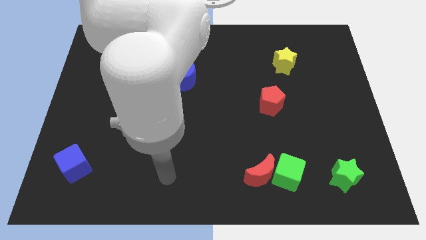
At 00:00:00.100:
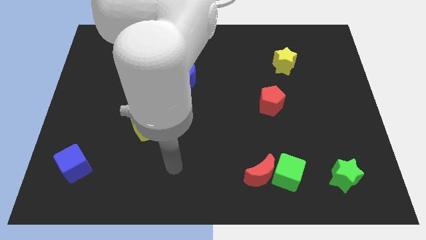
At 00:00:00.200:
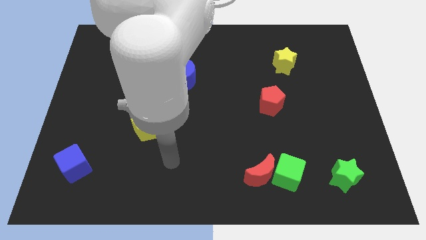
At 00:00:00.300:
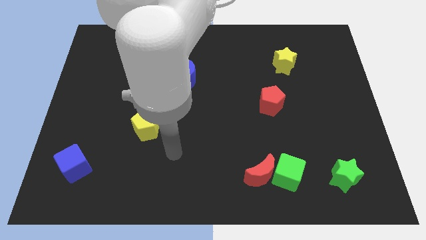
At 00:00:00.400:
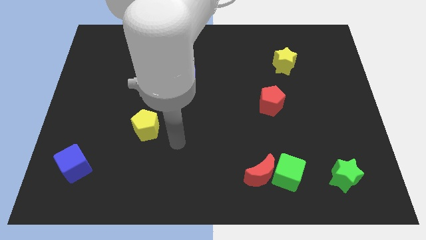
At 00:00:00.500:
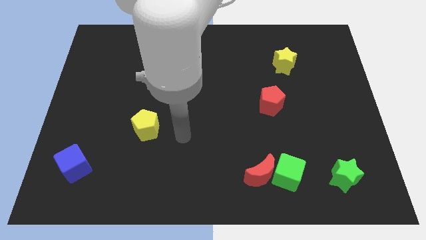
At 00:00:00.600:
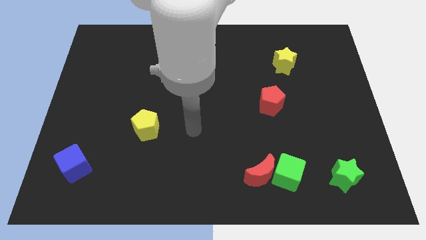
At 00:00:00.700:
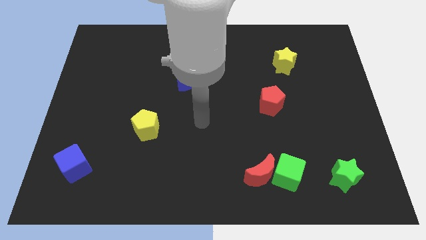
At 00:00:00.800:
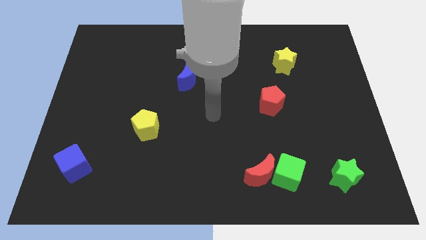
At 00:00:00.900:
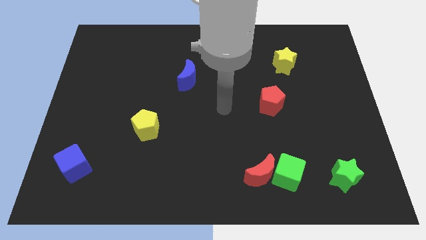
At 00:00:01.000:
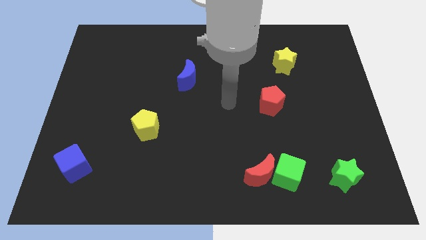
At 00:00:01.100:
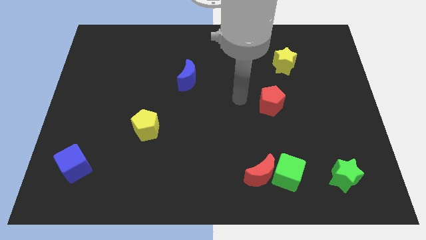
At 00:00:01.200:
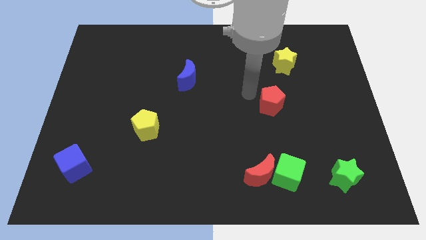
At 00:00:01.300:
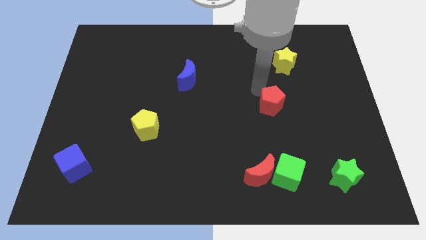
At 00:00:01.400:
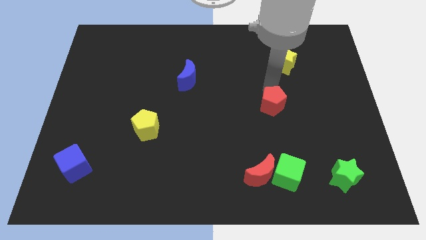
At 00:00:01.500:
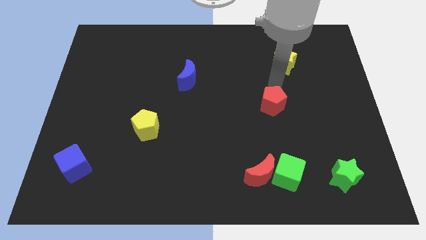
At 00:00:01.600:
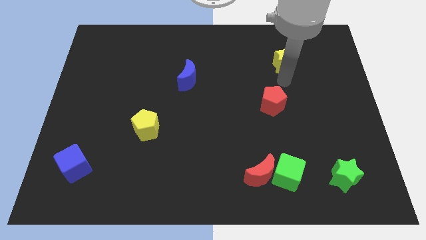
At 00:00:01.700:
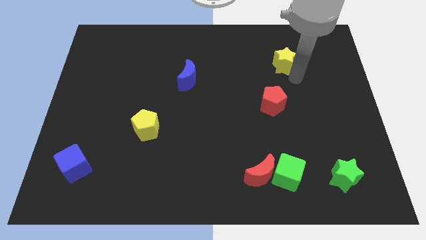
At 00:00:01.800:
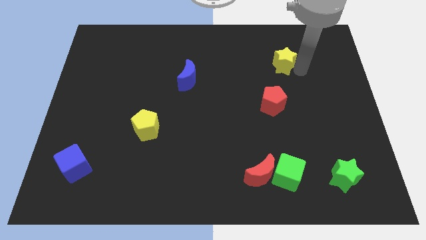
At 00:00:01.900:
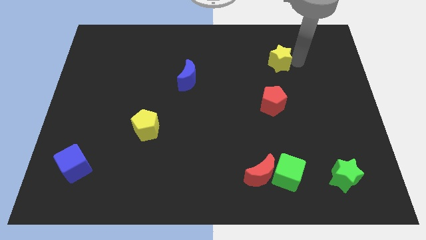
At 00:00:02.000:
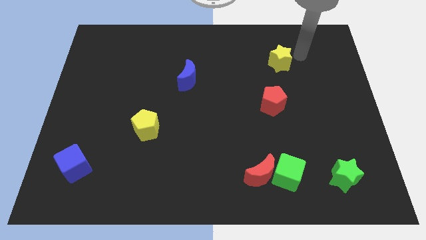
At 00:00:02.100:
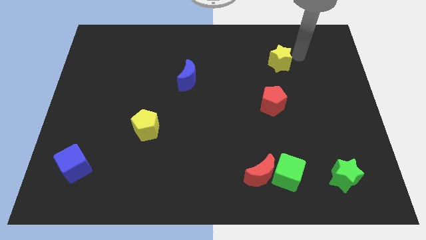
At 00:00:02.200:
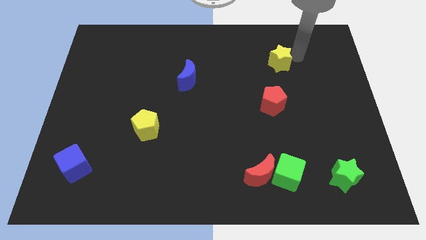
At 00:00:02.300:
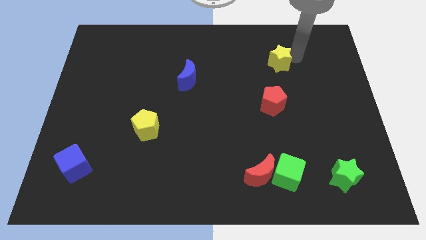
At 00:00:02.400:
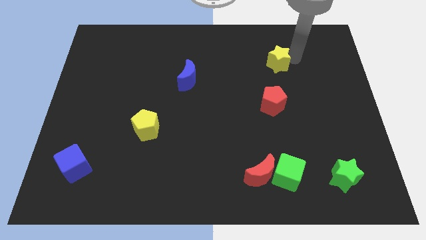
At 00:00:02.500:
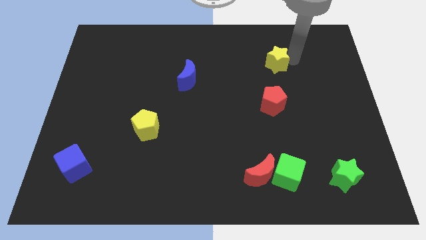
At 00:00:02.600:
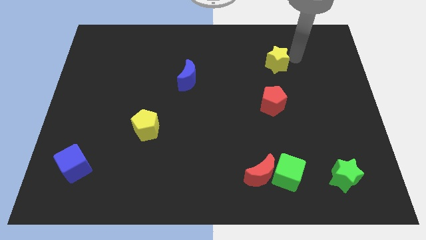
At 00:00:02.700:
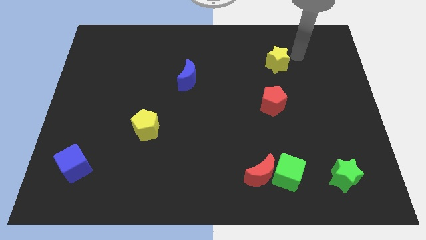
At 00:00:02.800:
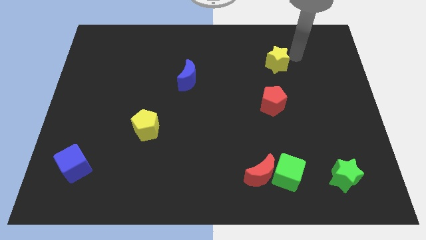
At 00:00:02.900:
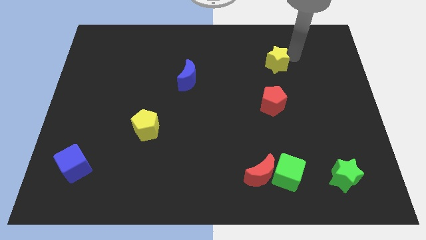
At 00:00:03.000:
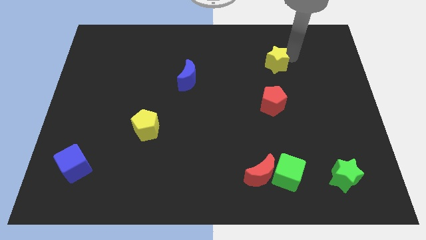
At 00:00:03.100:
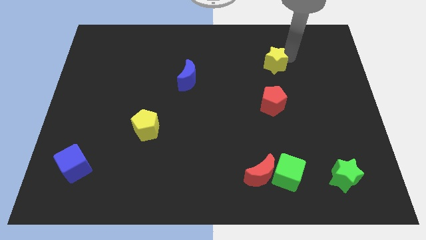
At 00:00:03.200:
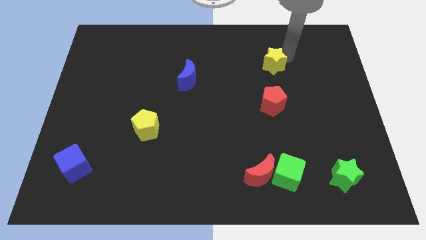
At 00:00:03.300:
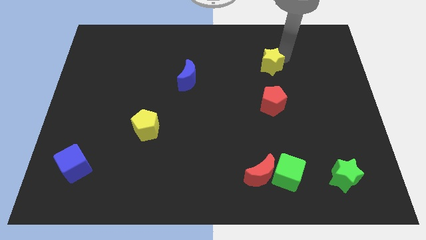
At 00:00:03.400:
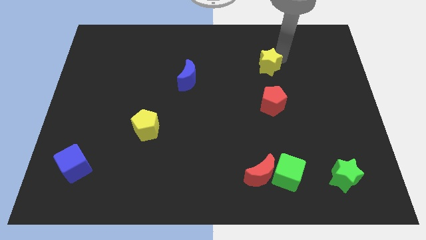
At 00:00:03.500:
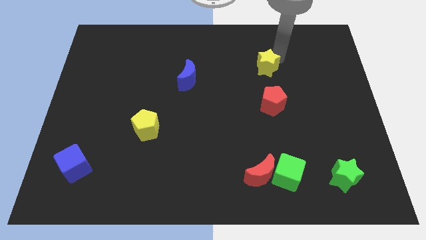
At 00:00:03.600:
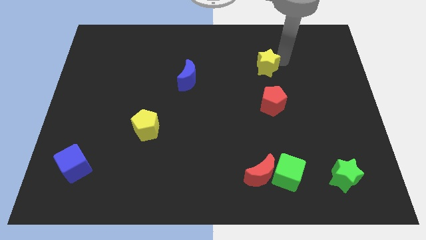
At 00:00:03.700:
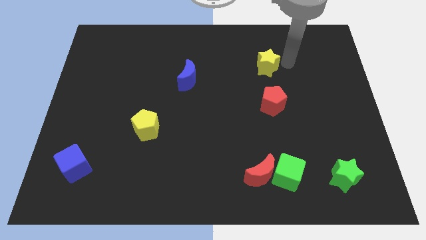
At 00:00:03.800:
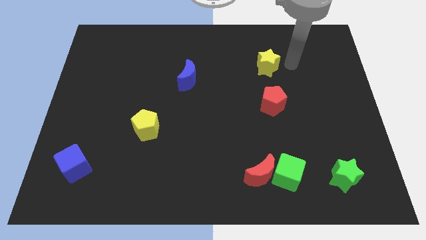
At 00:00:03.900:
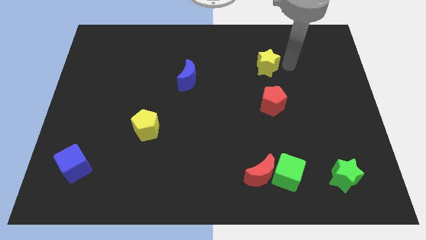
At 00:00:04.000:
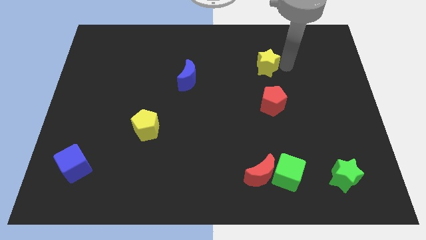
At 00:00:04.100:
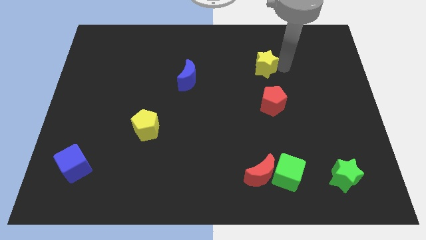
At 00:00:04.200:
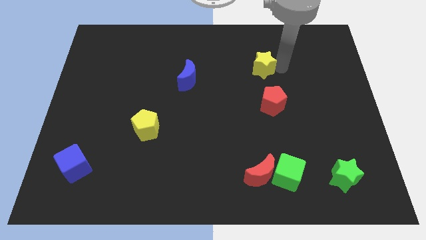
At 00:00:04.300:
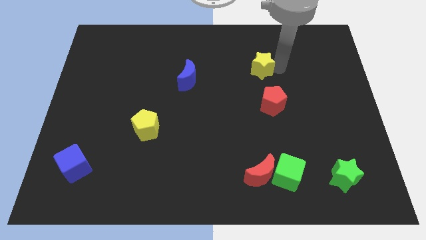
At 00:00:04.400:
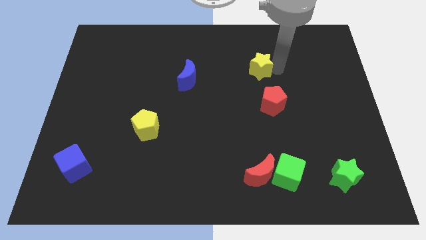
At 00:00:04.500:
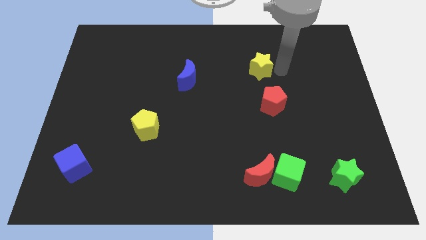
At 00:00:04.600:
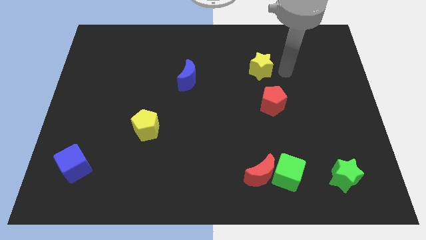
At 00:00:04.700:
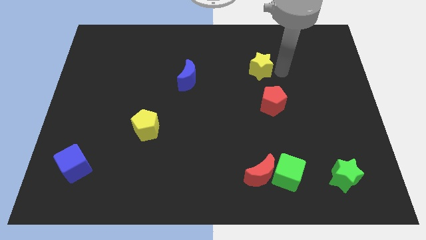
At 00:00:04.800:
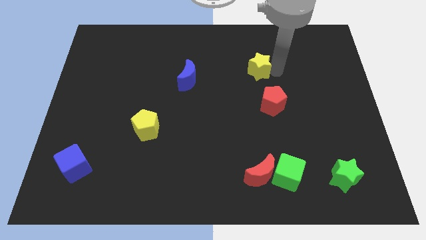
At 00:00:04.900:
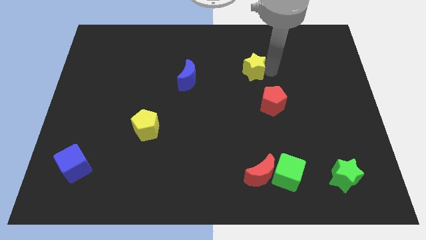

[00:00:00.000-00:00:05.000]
move the yellow star left a little

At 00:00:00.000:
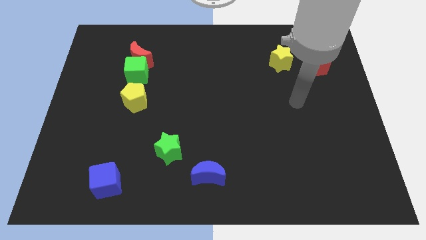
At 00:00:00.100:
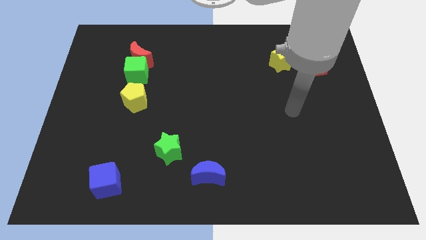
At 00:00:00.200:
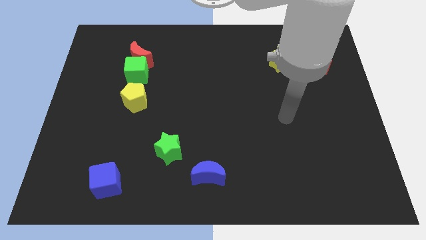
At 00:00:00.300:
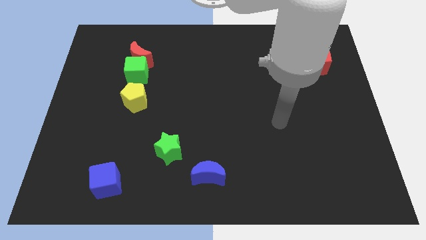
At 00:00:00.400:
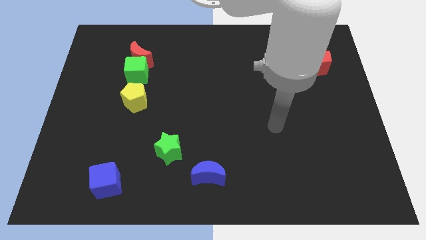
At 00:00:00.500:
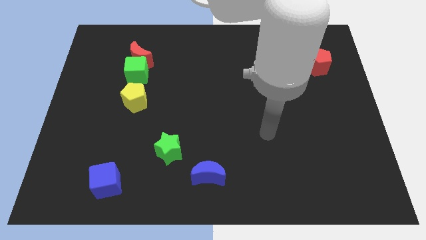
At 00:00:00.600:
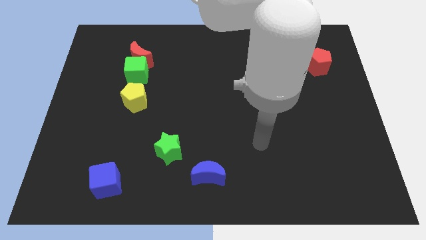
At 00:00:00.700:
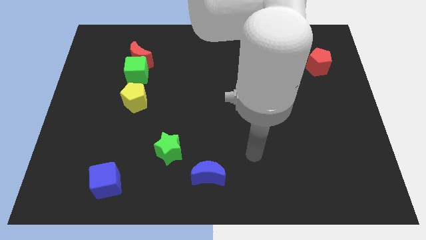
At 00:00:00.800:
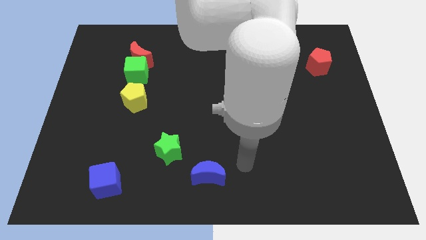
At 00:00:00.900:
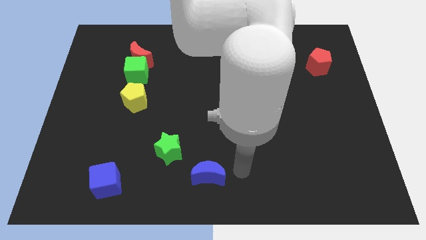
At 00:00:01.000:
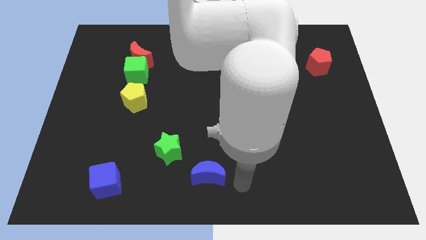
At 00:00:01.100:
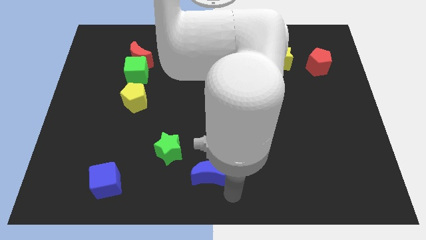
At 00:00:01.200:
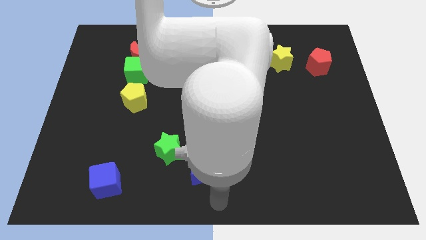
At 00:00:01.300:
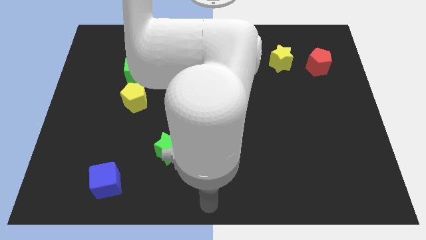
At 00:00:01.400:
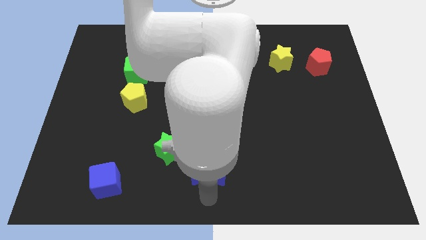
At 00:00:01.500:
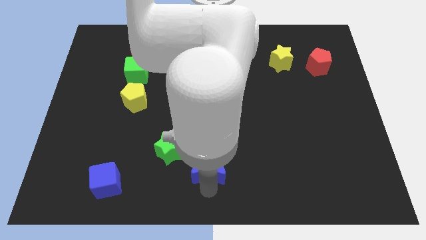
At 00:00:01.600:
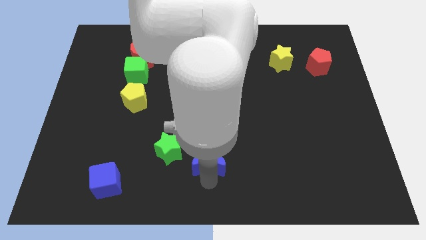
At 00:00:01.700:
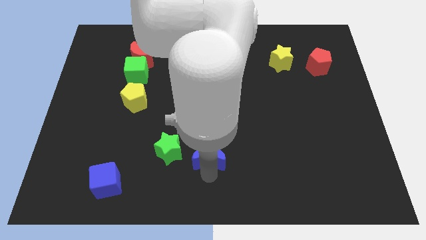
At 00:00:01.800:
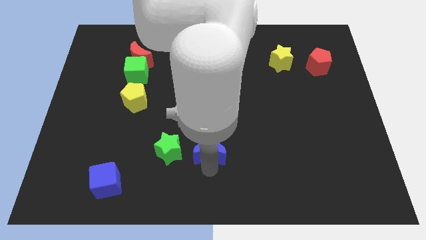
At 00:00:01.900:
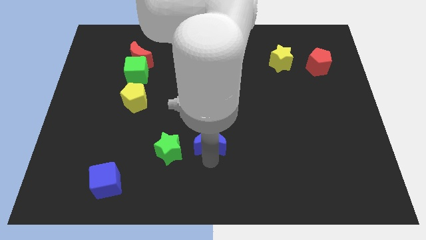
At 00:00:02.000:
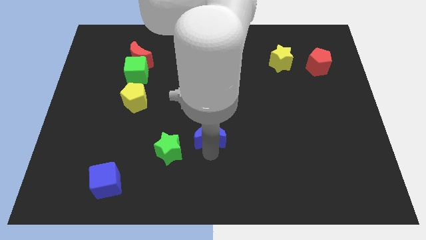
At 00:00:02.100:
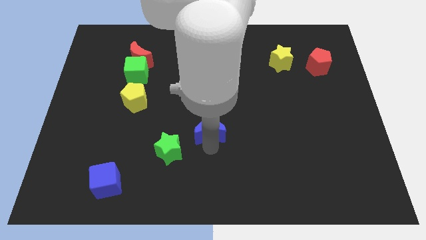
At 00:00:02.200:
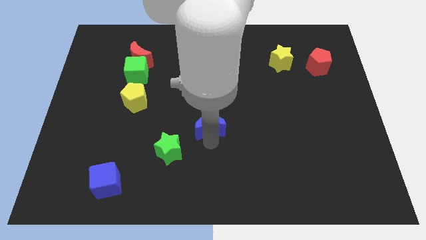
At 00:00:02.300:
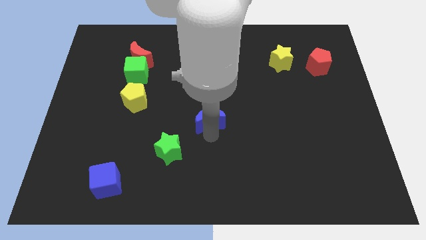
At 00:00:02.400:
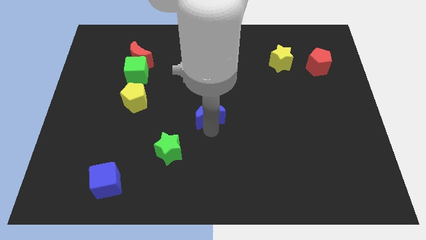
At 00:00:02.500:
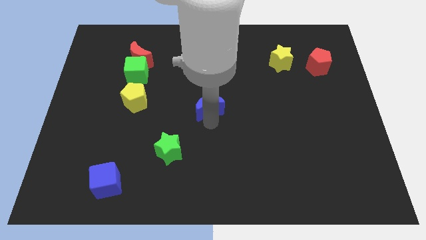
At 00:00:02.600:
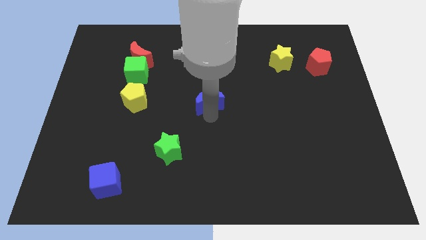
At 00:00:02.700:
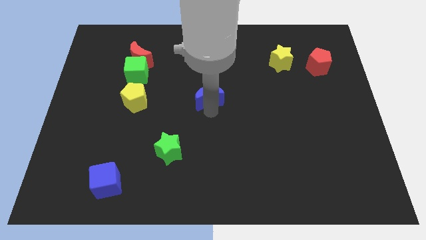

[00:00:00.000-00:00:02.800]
move the blue moon up

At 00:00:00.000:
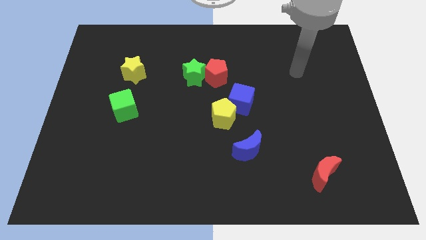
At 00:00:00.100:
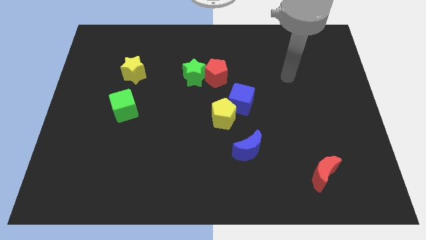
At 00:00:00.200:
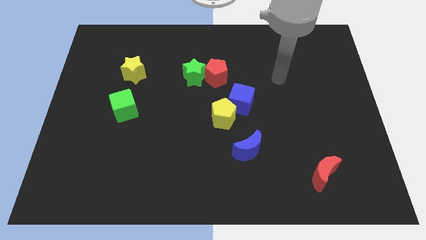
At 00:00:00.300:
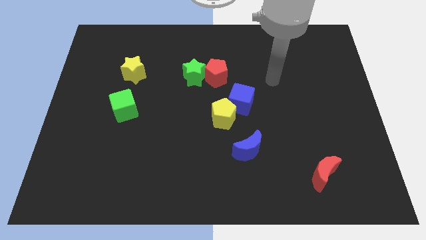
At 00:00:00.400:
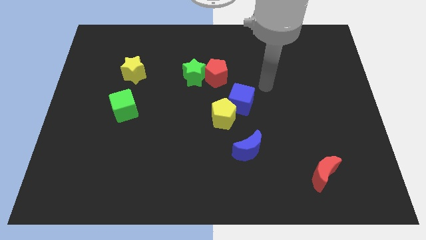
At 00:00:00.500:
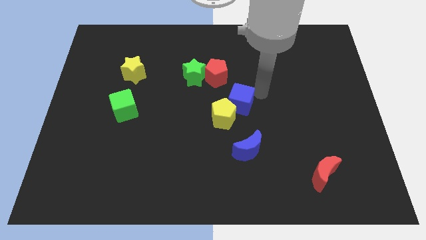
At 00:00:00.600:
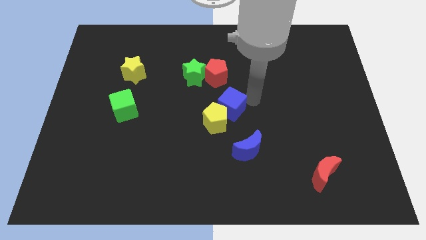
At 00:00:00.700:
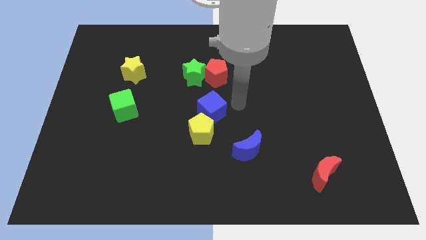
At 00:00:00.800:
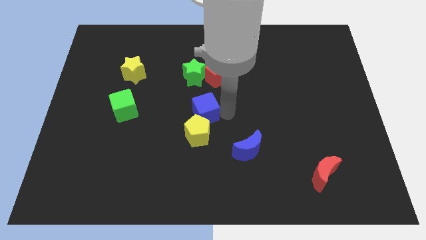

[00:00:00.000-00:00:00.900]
push the yellow pentagon slightly diagonally downwards and left
